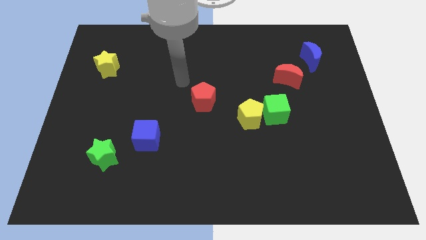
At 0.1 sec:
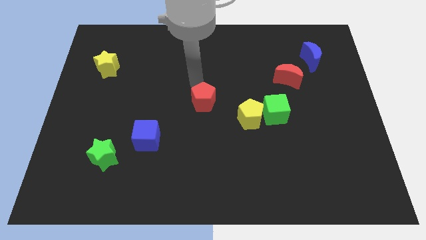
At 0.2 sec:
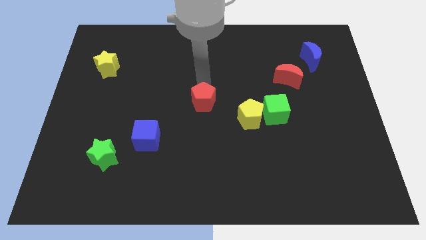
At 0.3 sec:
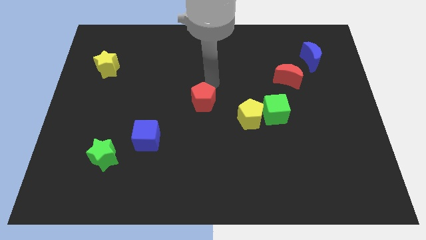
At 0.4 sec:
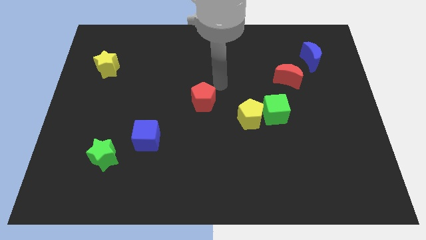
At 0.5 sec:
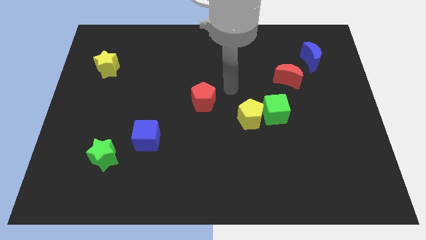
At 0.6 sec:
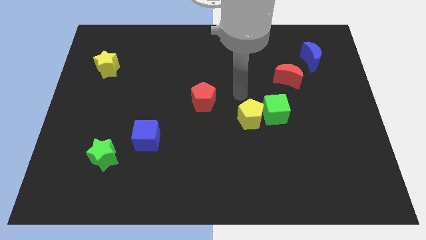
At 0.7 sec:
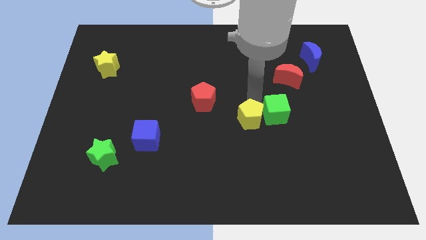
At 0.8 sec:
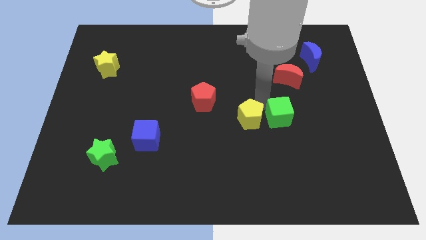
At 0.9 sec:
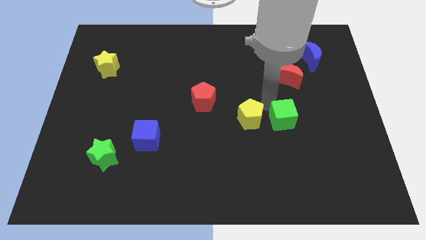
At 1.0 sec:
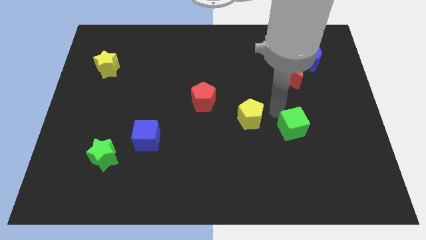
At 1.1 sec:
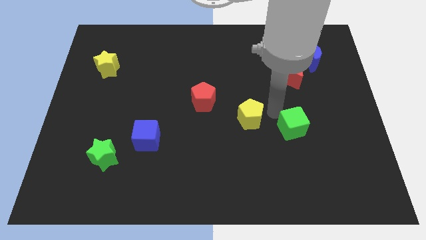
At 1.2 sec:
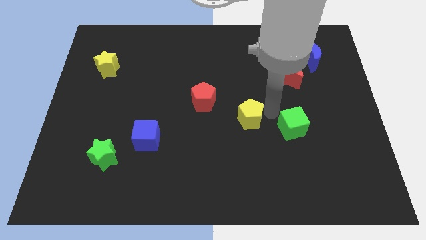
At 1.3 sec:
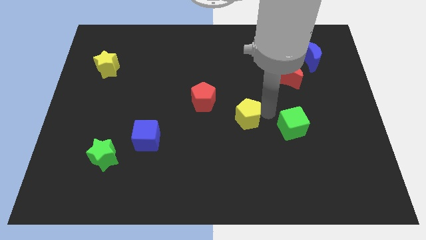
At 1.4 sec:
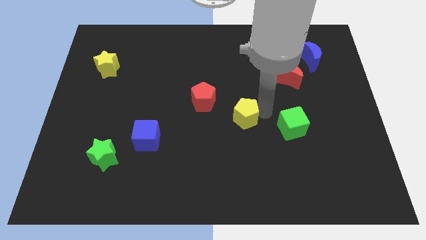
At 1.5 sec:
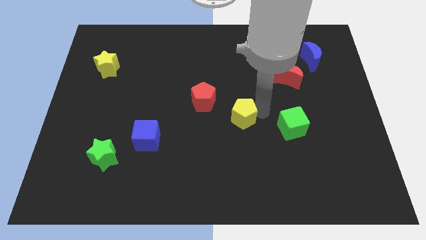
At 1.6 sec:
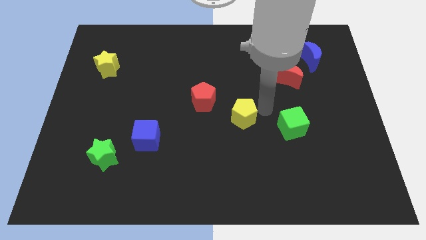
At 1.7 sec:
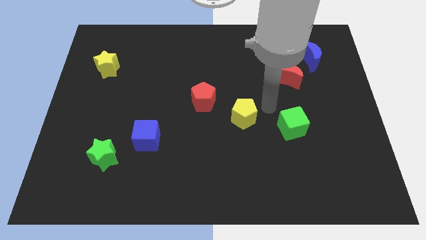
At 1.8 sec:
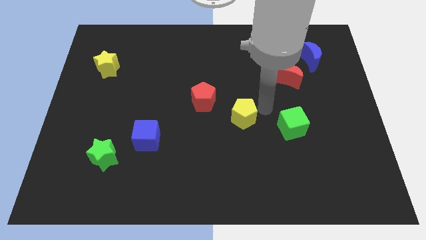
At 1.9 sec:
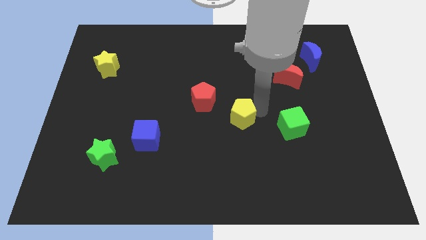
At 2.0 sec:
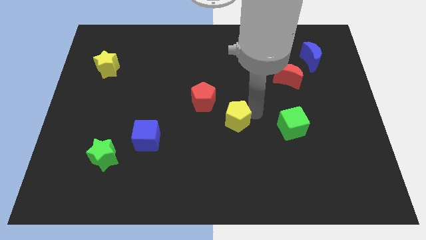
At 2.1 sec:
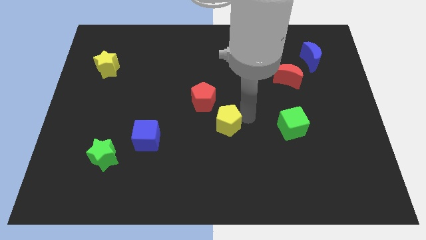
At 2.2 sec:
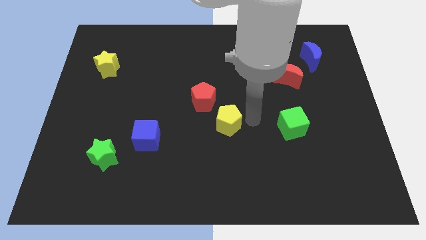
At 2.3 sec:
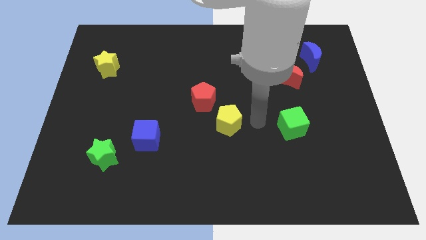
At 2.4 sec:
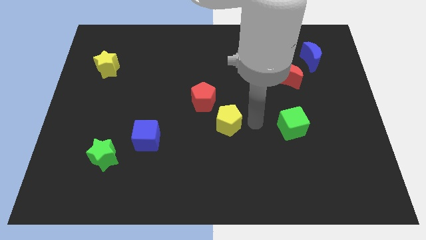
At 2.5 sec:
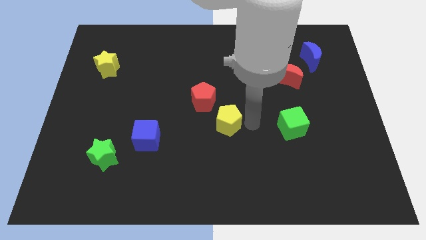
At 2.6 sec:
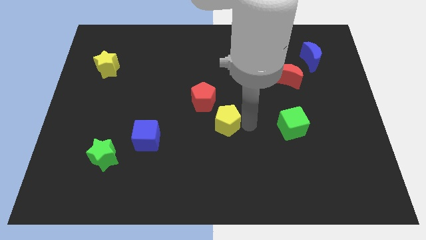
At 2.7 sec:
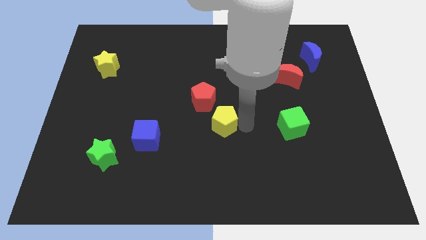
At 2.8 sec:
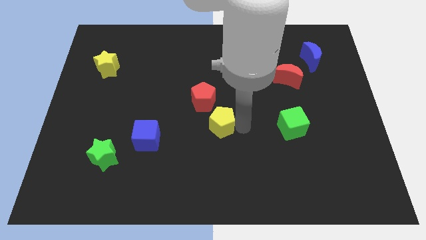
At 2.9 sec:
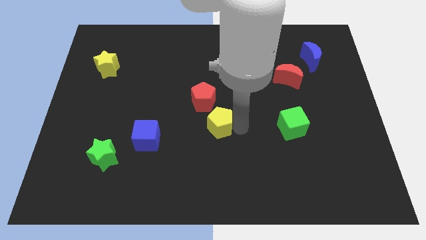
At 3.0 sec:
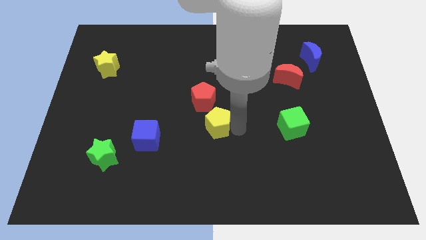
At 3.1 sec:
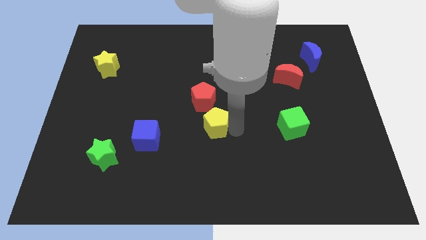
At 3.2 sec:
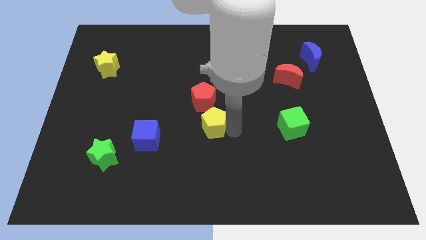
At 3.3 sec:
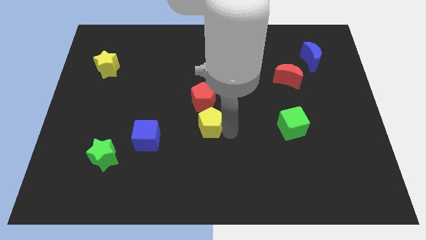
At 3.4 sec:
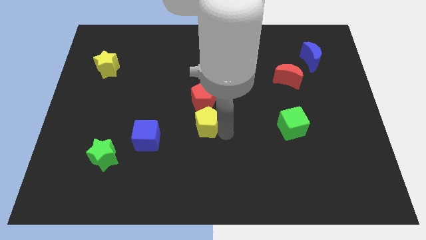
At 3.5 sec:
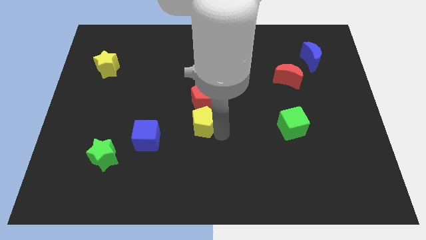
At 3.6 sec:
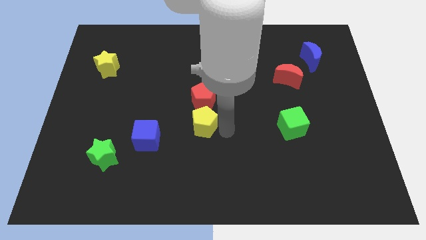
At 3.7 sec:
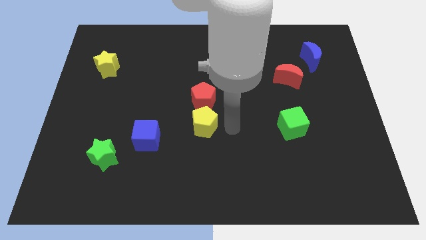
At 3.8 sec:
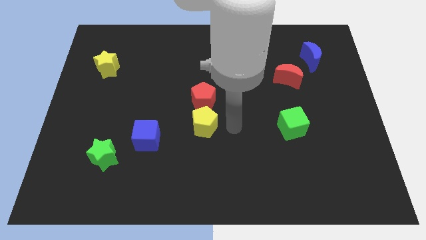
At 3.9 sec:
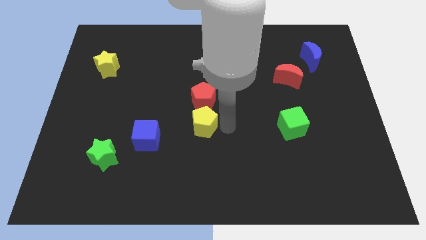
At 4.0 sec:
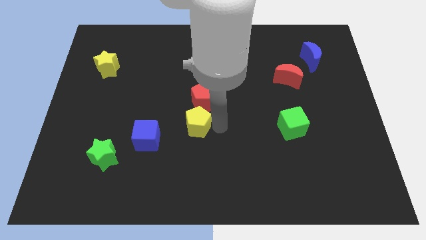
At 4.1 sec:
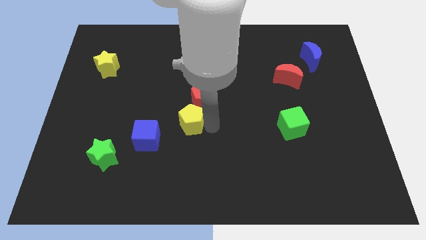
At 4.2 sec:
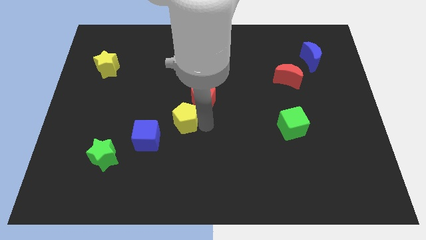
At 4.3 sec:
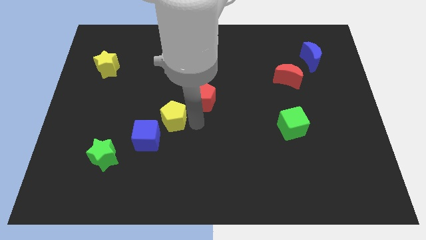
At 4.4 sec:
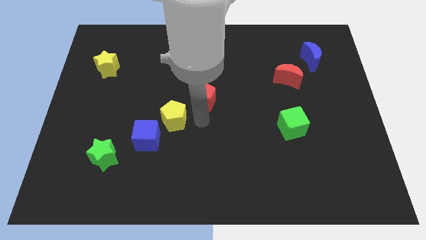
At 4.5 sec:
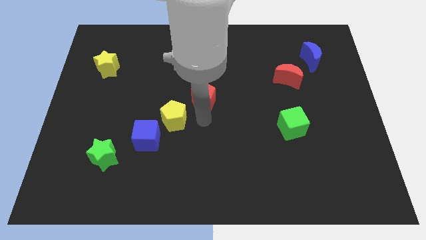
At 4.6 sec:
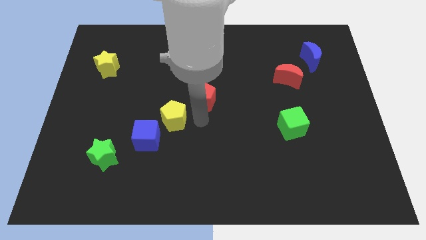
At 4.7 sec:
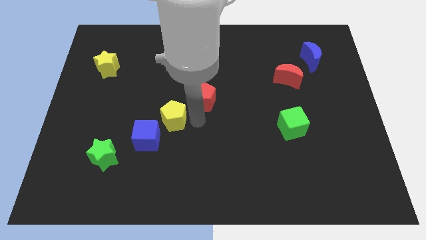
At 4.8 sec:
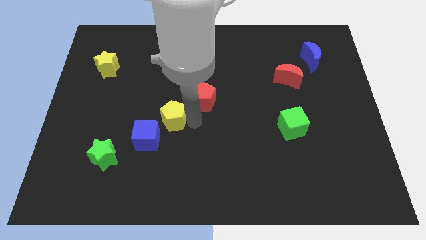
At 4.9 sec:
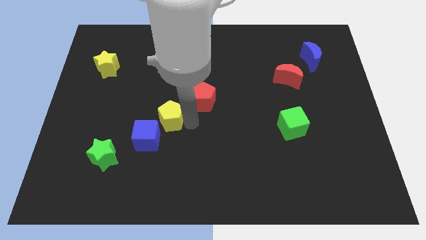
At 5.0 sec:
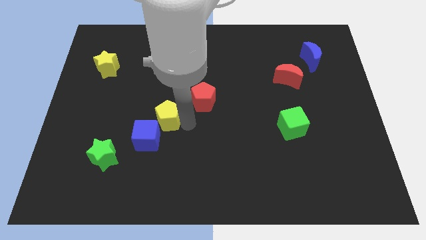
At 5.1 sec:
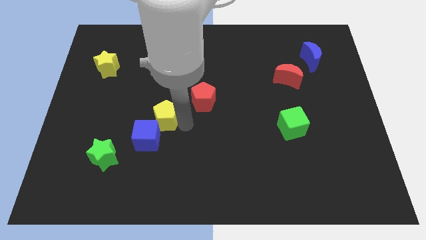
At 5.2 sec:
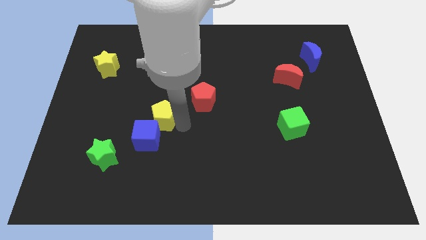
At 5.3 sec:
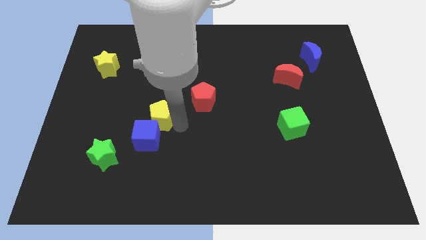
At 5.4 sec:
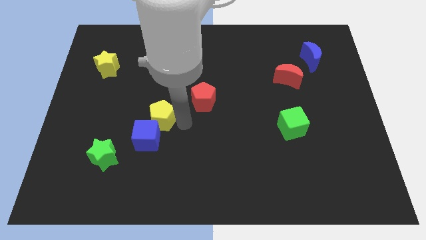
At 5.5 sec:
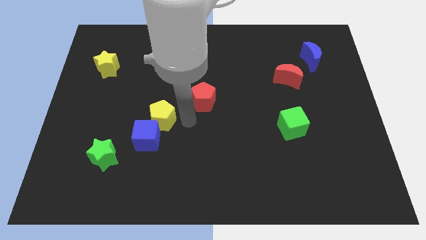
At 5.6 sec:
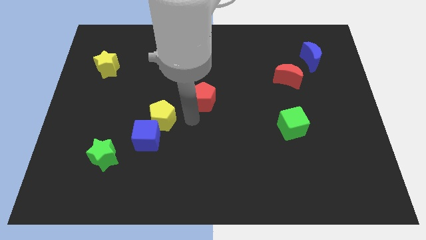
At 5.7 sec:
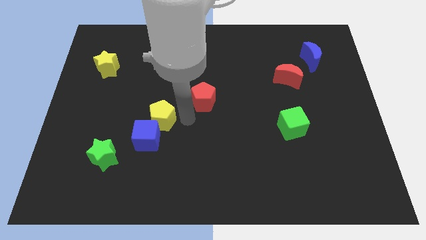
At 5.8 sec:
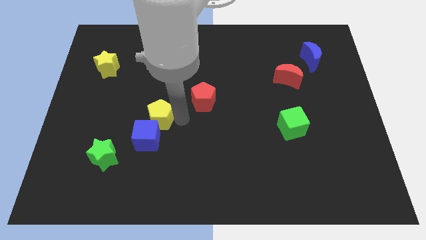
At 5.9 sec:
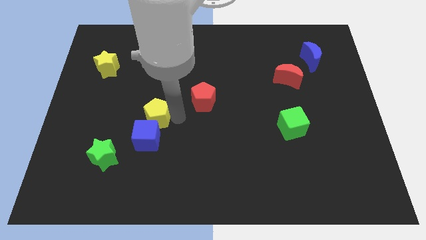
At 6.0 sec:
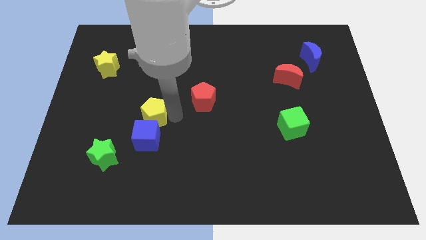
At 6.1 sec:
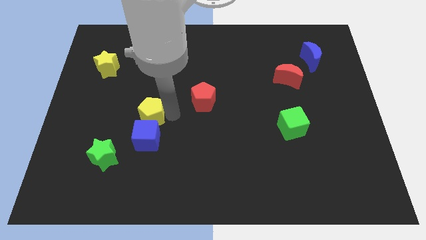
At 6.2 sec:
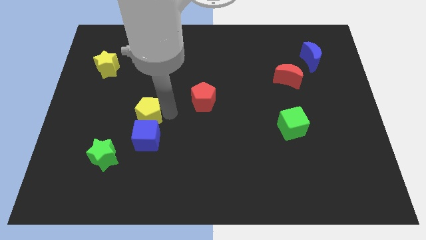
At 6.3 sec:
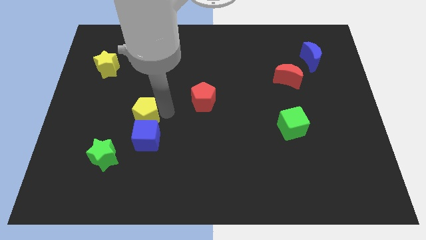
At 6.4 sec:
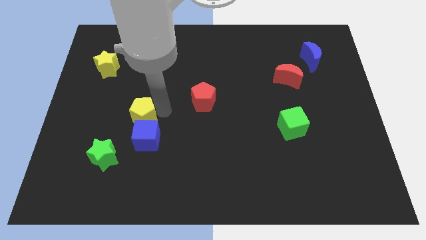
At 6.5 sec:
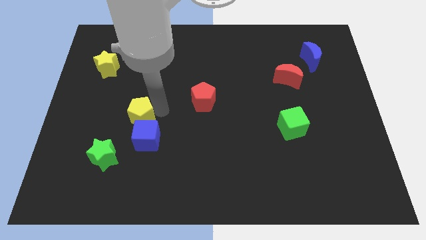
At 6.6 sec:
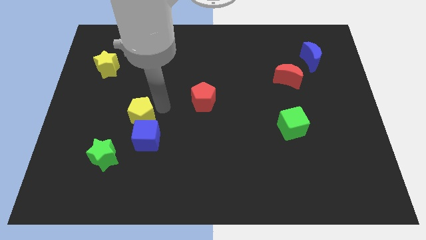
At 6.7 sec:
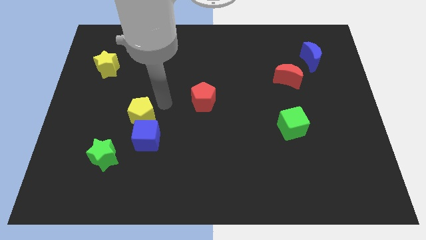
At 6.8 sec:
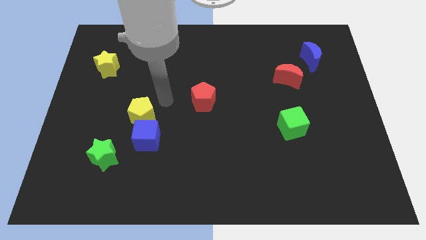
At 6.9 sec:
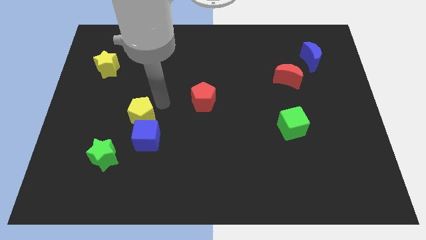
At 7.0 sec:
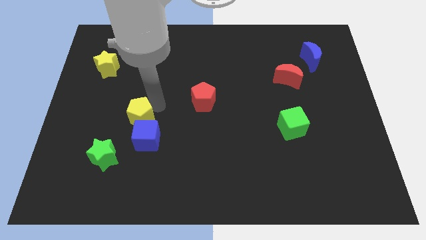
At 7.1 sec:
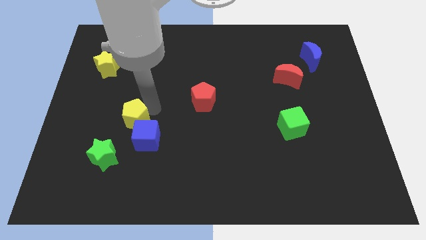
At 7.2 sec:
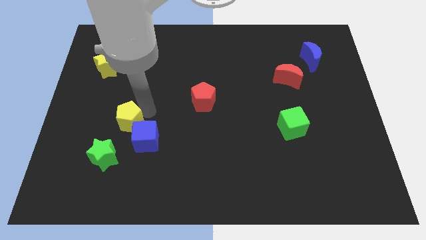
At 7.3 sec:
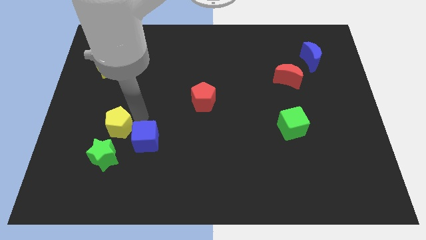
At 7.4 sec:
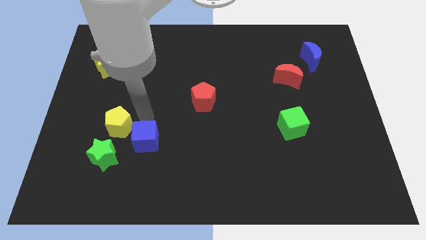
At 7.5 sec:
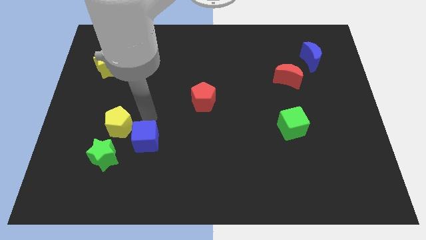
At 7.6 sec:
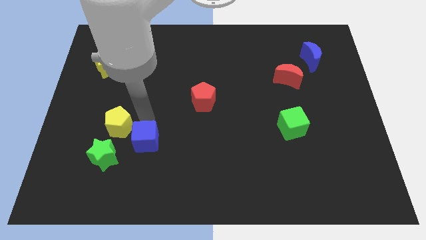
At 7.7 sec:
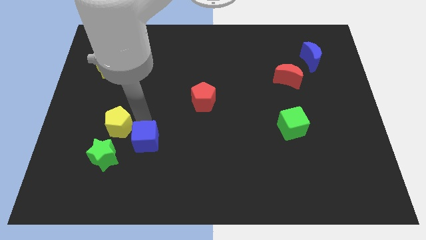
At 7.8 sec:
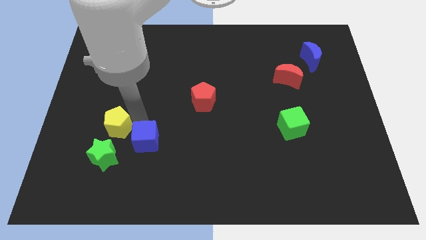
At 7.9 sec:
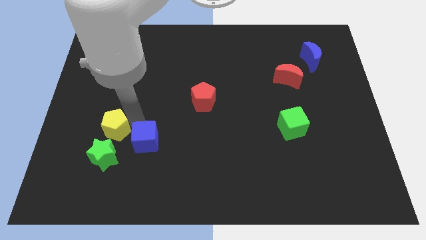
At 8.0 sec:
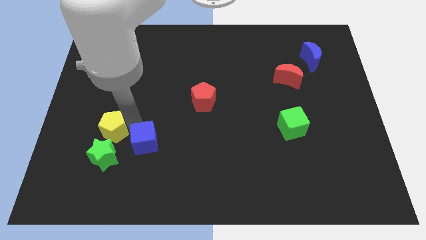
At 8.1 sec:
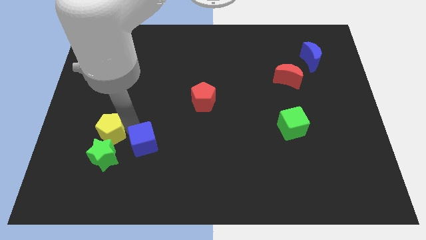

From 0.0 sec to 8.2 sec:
put the yellow pentagon to the top left of the green star
